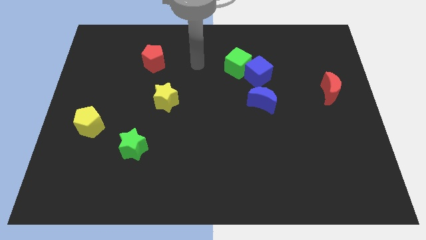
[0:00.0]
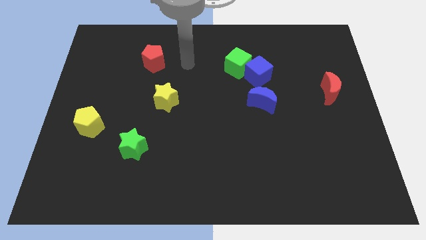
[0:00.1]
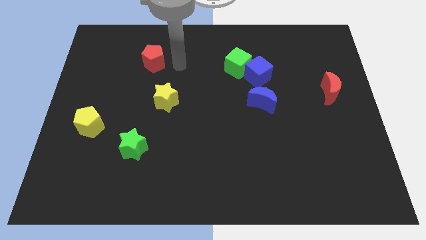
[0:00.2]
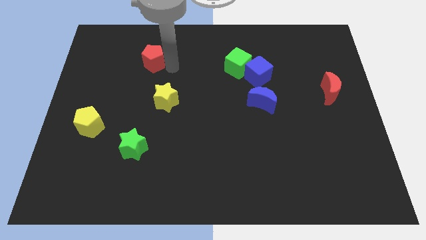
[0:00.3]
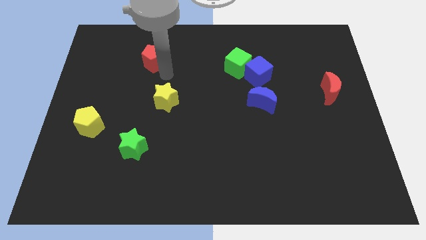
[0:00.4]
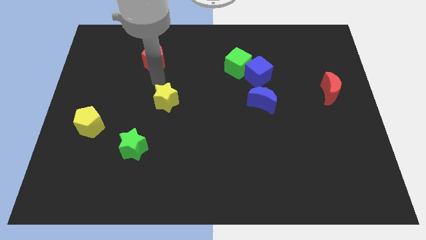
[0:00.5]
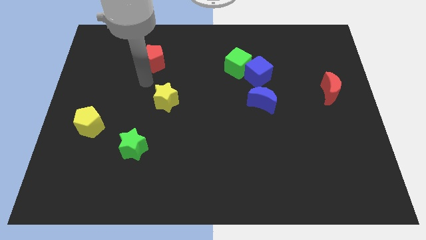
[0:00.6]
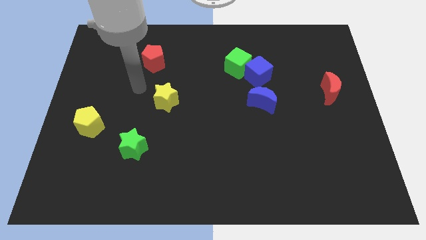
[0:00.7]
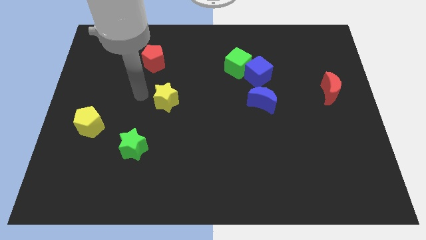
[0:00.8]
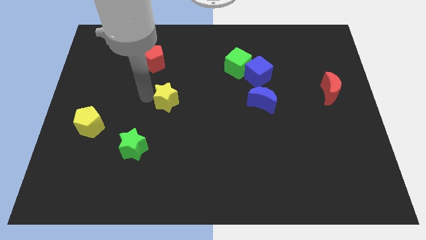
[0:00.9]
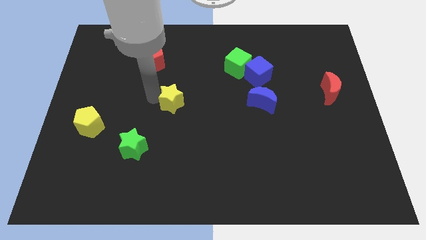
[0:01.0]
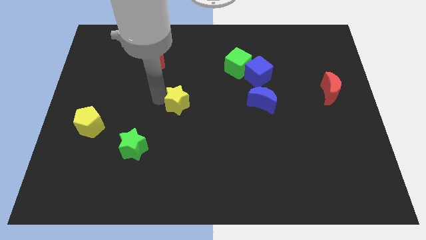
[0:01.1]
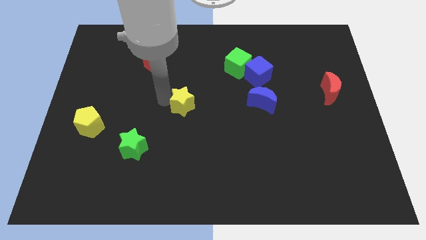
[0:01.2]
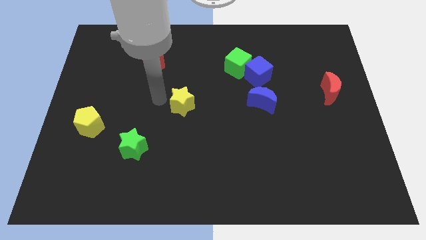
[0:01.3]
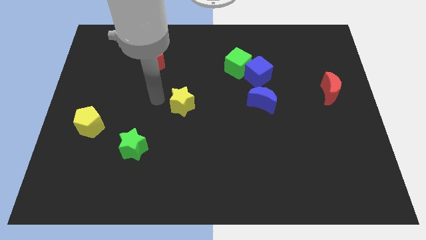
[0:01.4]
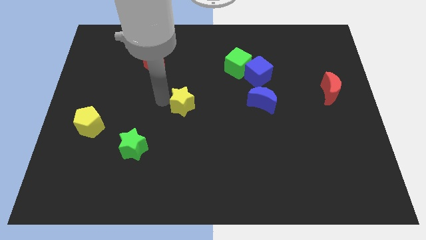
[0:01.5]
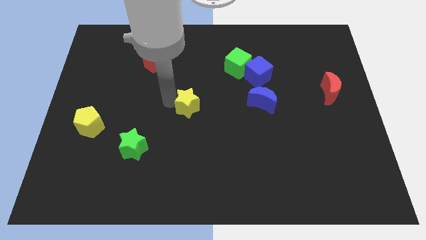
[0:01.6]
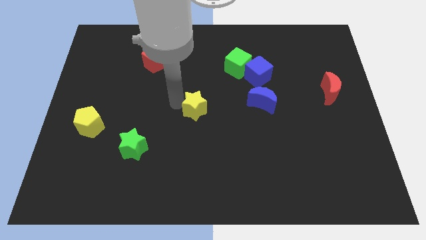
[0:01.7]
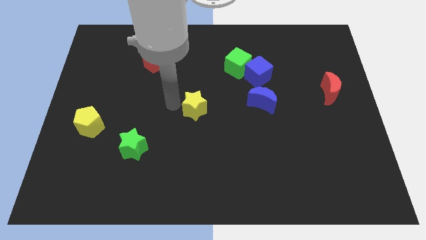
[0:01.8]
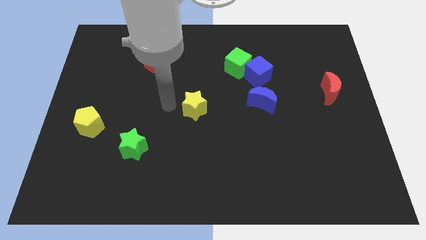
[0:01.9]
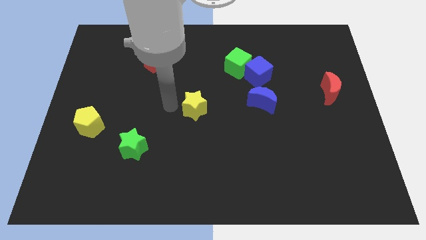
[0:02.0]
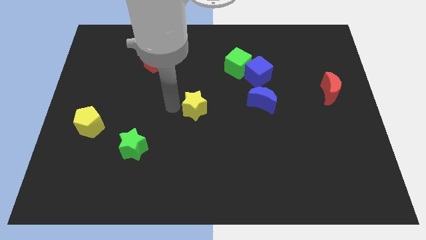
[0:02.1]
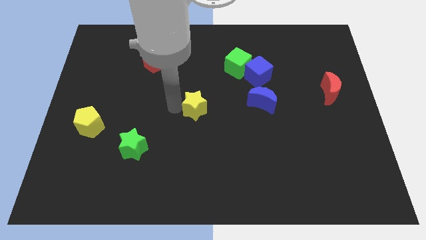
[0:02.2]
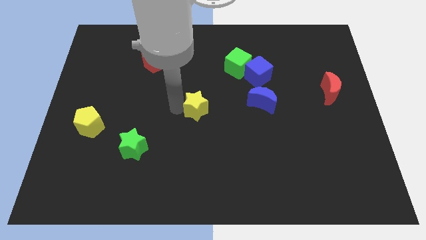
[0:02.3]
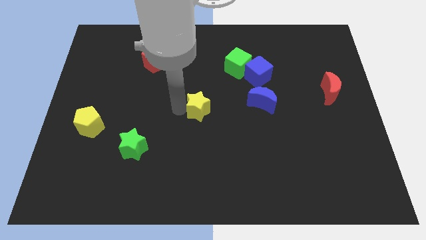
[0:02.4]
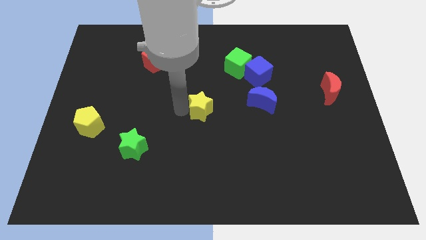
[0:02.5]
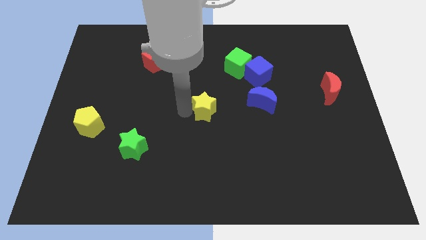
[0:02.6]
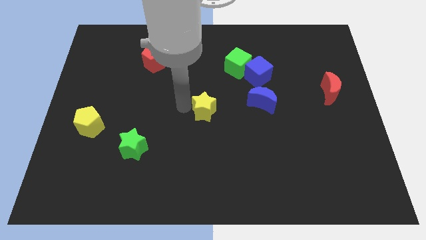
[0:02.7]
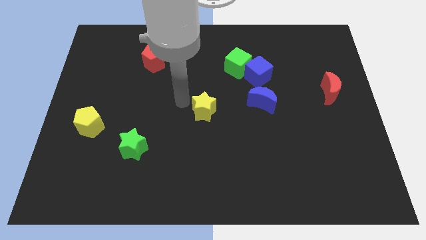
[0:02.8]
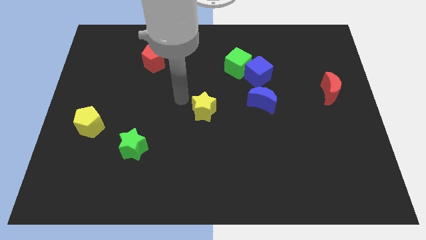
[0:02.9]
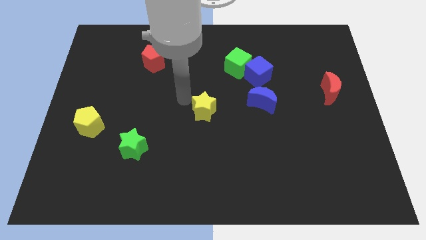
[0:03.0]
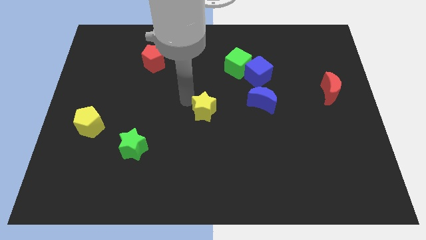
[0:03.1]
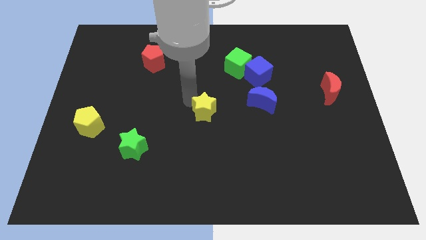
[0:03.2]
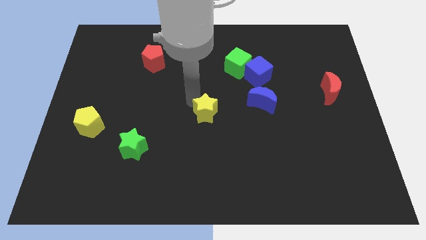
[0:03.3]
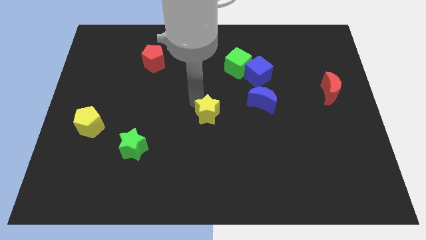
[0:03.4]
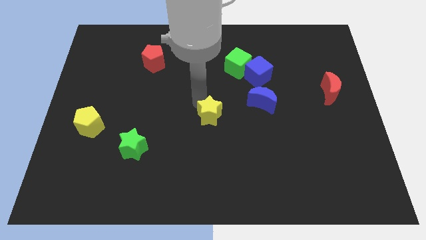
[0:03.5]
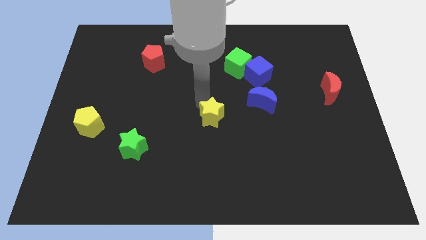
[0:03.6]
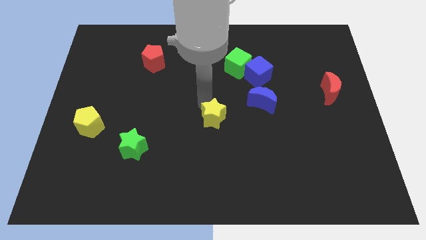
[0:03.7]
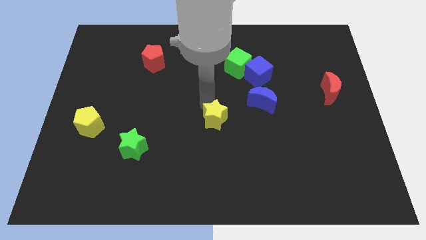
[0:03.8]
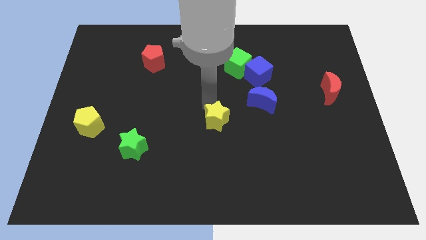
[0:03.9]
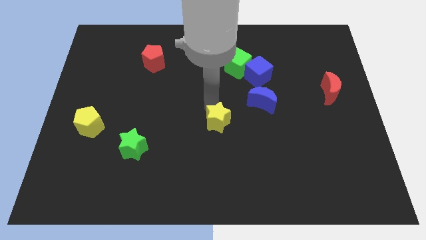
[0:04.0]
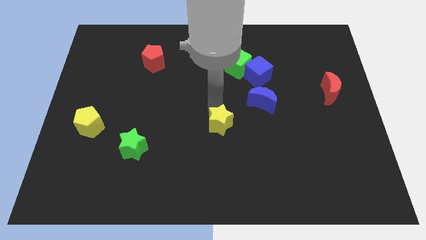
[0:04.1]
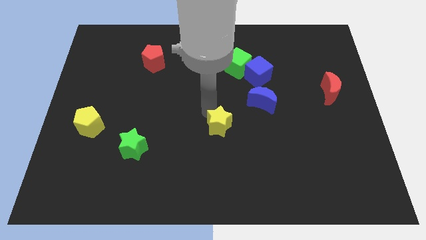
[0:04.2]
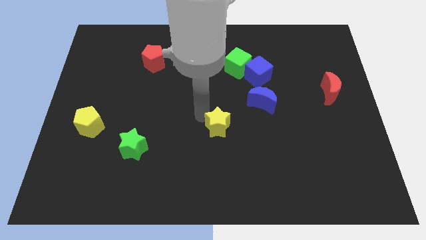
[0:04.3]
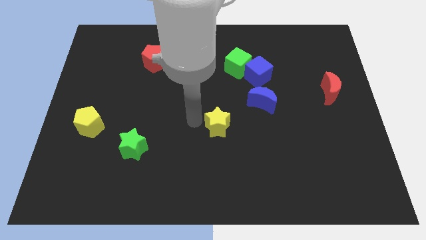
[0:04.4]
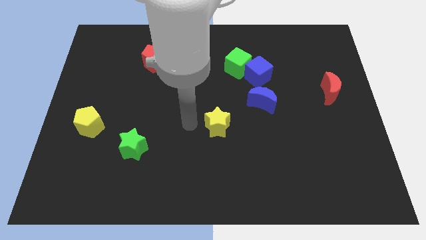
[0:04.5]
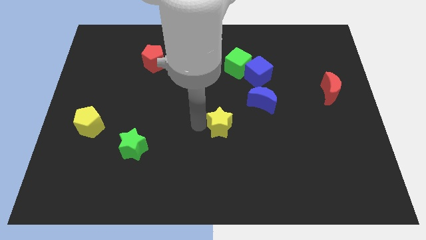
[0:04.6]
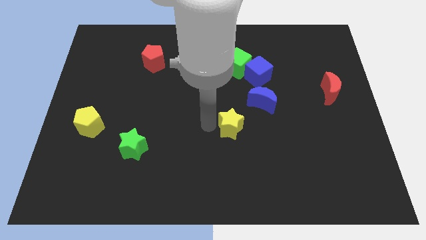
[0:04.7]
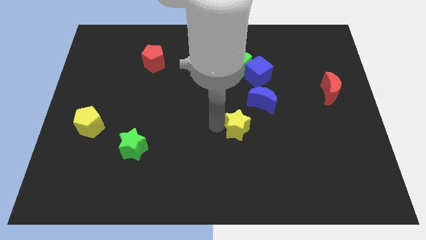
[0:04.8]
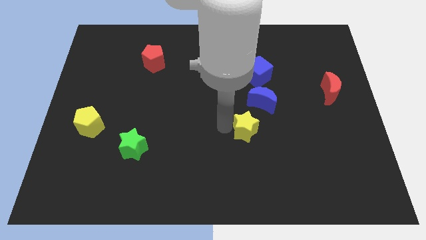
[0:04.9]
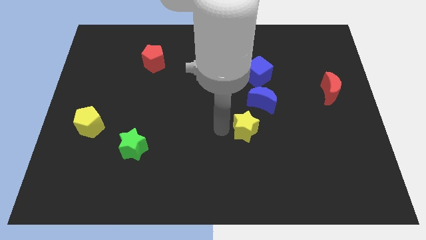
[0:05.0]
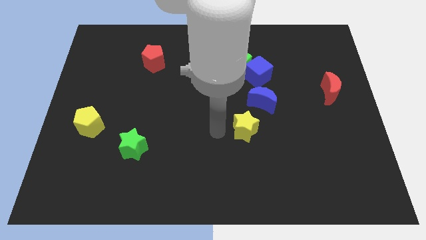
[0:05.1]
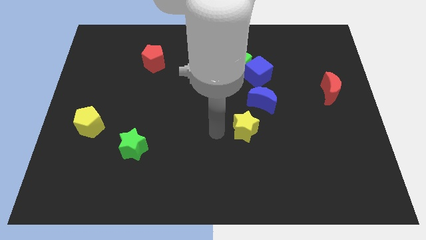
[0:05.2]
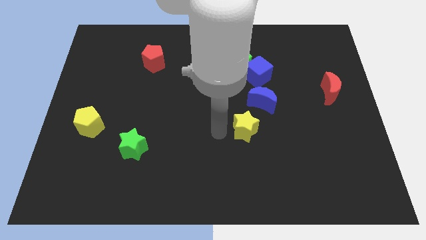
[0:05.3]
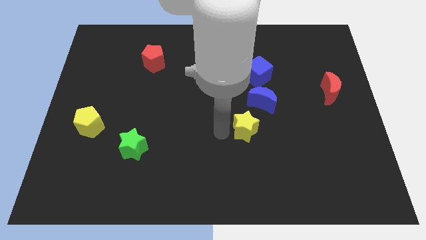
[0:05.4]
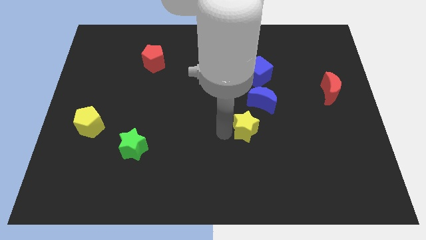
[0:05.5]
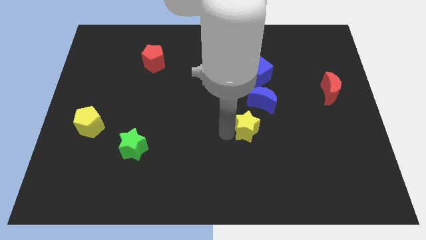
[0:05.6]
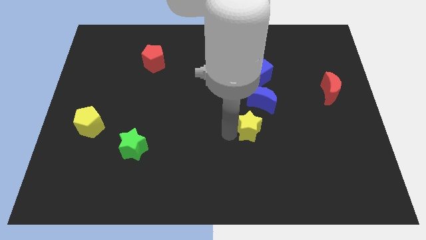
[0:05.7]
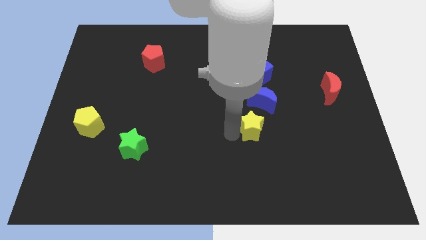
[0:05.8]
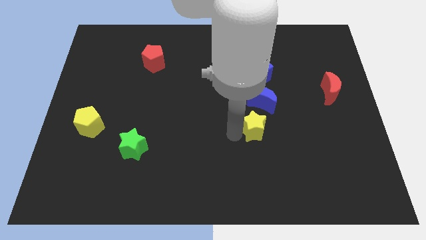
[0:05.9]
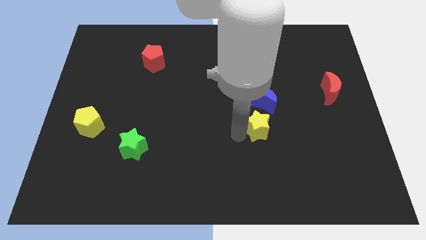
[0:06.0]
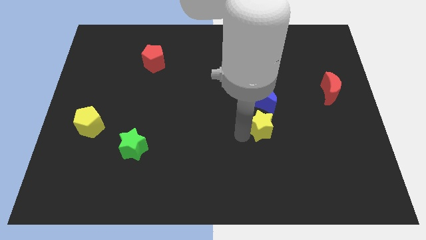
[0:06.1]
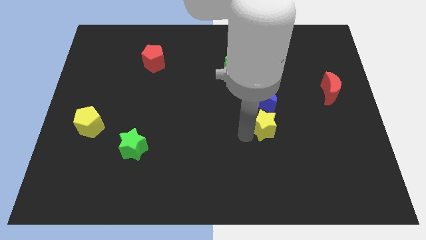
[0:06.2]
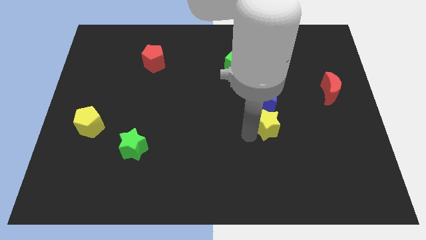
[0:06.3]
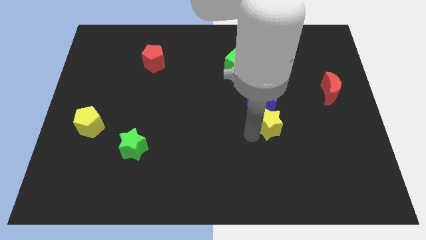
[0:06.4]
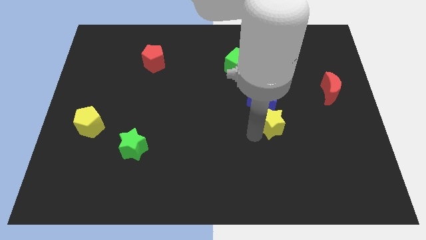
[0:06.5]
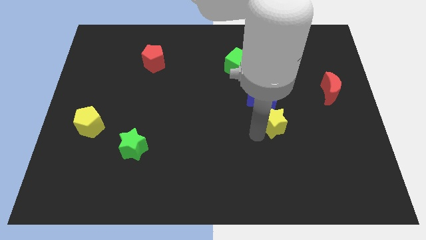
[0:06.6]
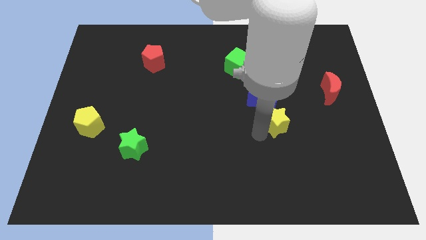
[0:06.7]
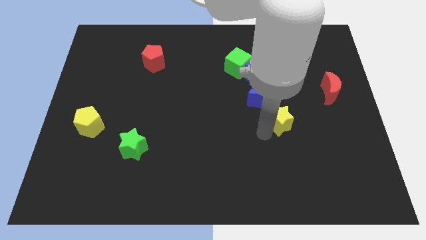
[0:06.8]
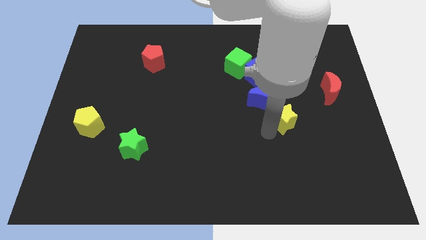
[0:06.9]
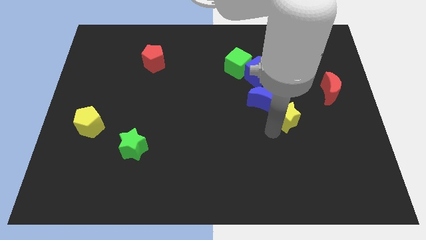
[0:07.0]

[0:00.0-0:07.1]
push the yellow star just right of the blue moon
